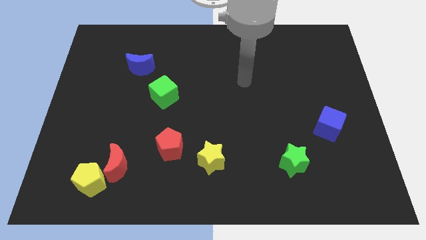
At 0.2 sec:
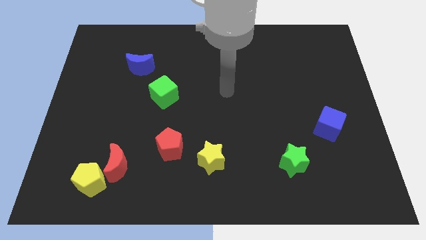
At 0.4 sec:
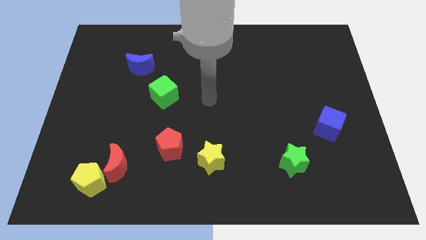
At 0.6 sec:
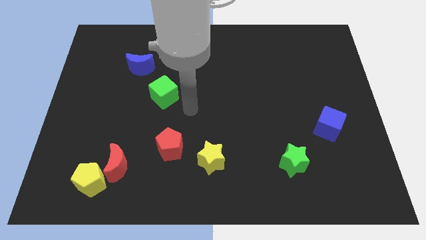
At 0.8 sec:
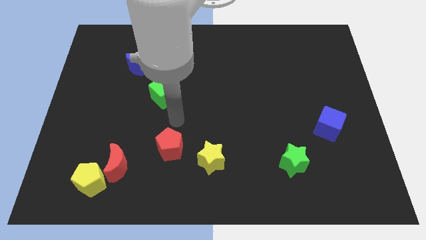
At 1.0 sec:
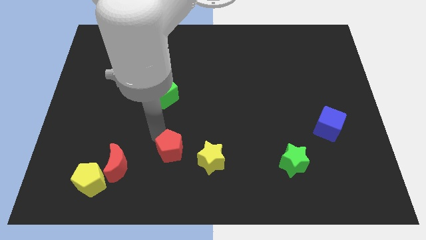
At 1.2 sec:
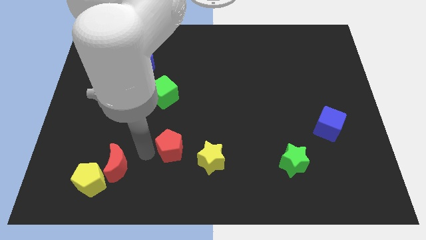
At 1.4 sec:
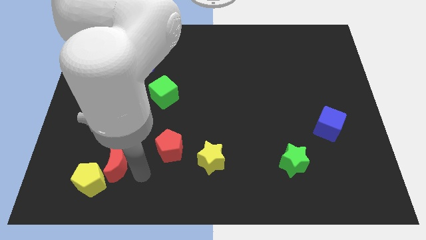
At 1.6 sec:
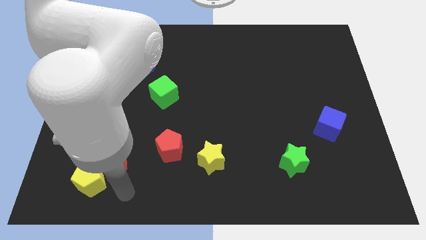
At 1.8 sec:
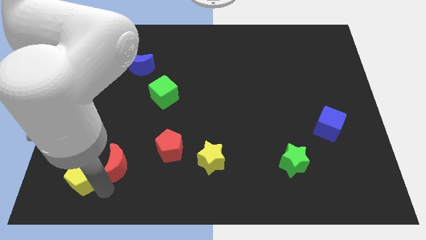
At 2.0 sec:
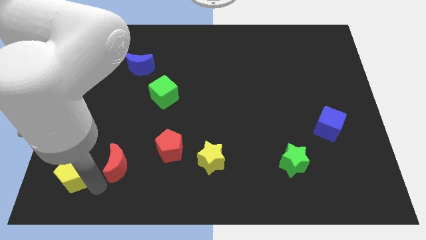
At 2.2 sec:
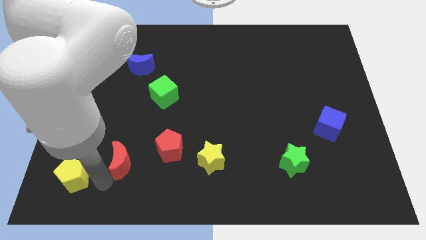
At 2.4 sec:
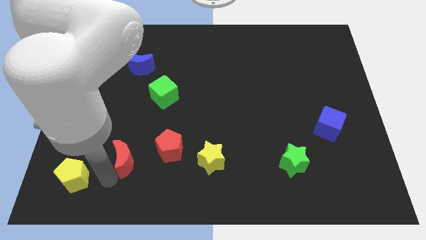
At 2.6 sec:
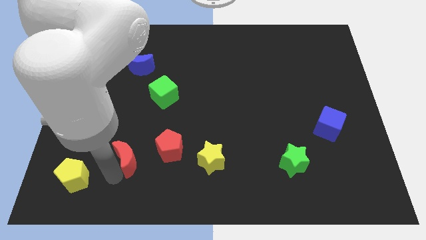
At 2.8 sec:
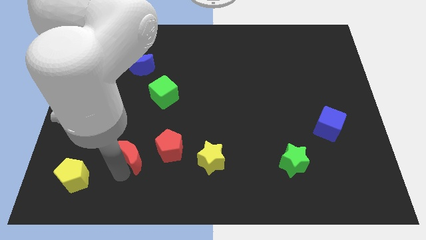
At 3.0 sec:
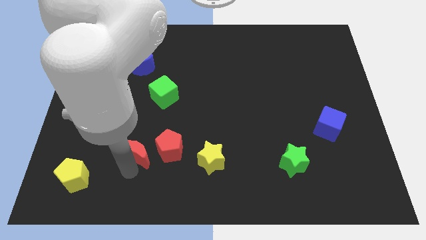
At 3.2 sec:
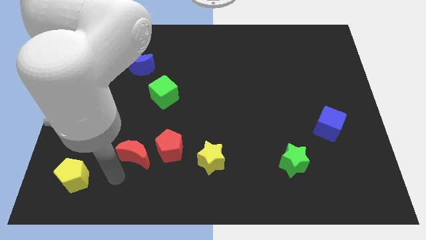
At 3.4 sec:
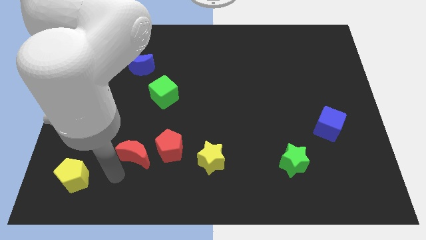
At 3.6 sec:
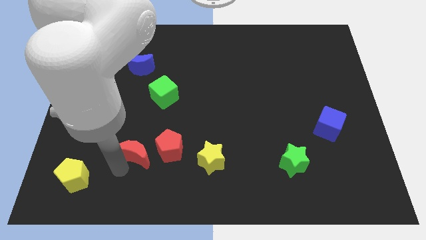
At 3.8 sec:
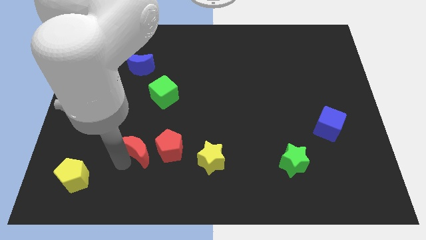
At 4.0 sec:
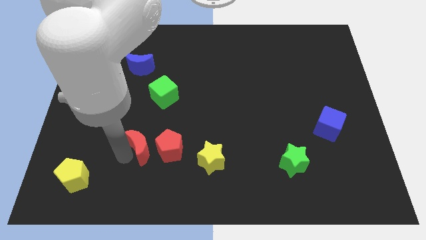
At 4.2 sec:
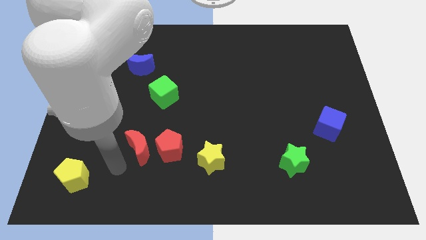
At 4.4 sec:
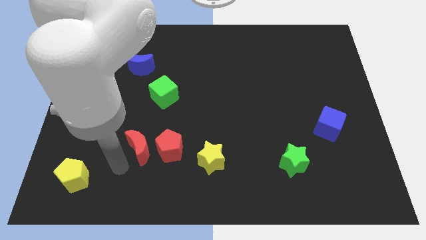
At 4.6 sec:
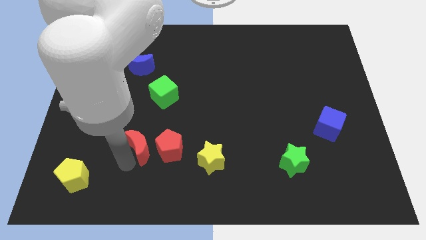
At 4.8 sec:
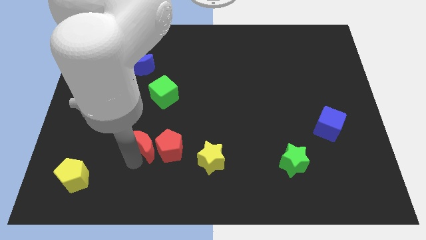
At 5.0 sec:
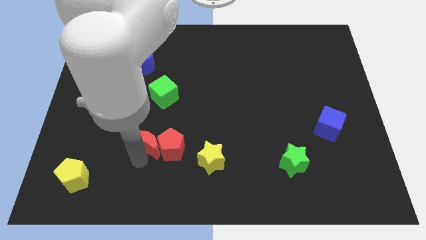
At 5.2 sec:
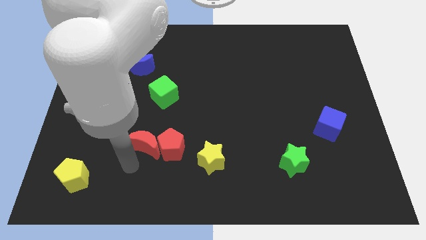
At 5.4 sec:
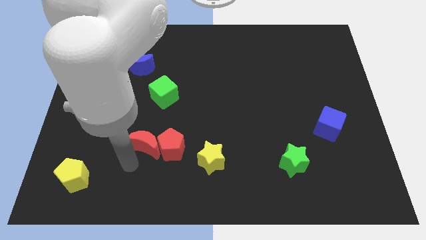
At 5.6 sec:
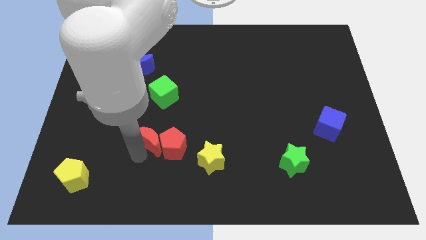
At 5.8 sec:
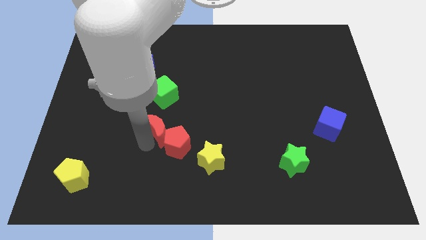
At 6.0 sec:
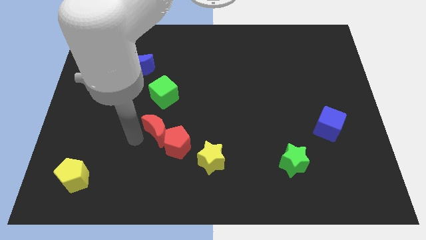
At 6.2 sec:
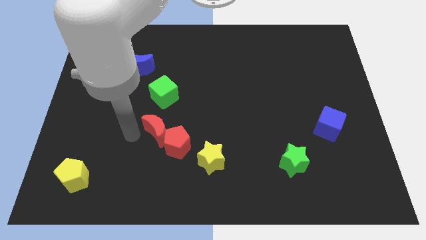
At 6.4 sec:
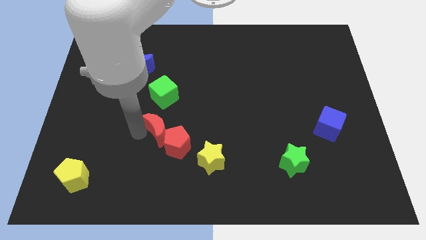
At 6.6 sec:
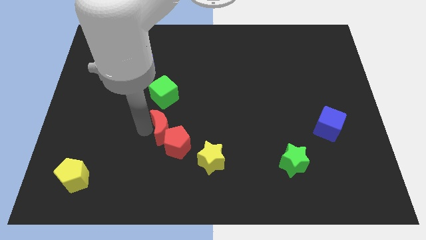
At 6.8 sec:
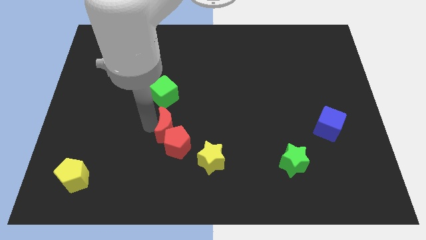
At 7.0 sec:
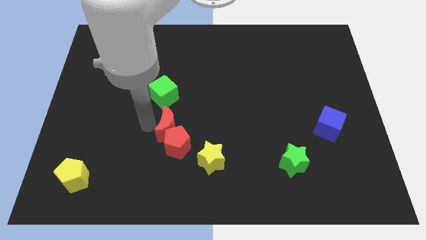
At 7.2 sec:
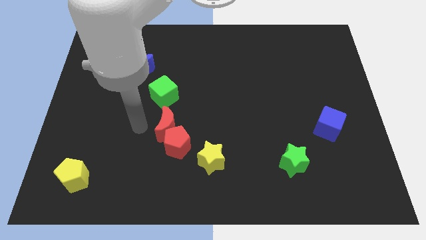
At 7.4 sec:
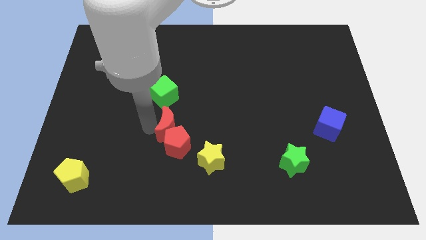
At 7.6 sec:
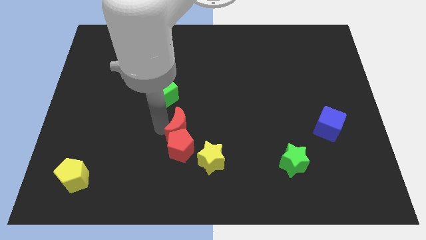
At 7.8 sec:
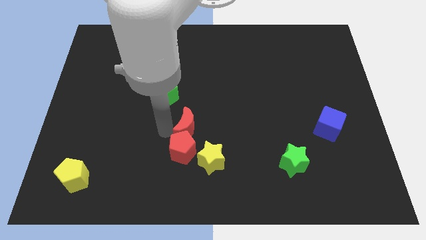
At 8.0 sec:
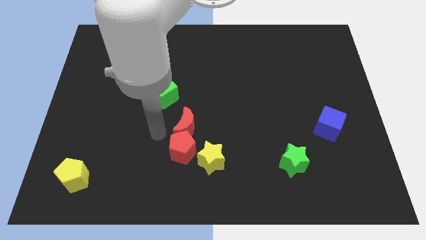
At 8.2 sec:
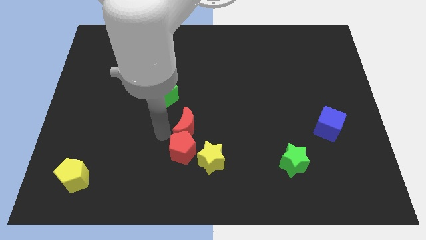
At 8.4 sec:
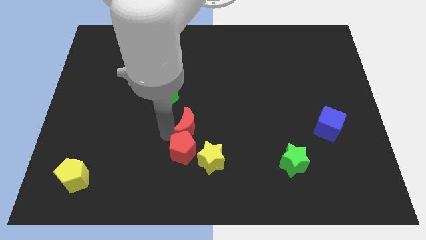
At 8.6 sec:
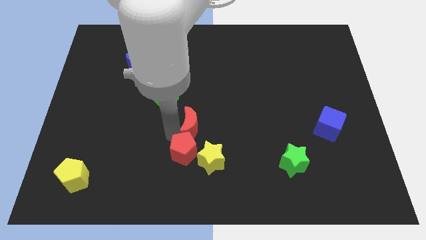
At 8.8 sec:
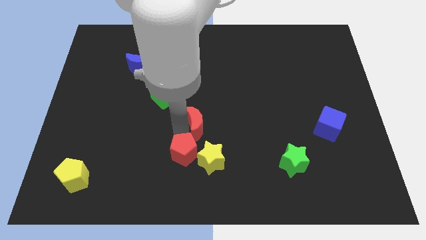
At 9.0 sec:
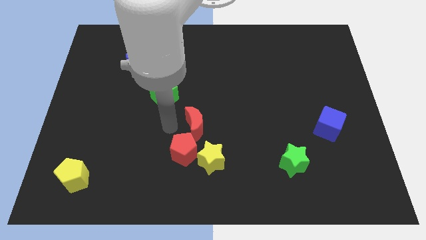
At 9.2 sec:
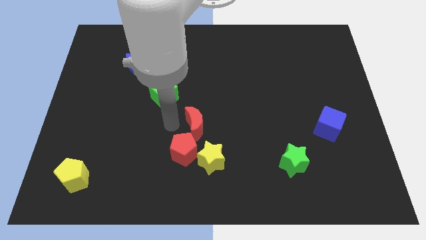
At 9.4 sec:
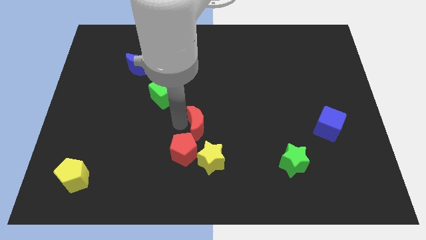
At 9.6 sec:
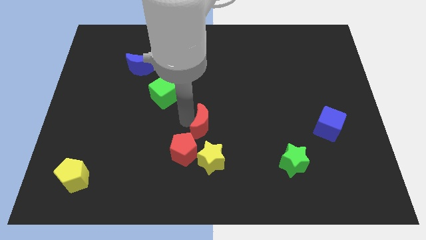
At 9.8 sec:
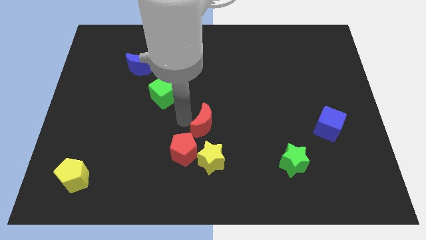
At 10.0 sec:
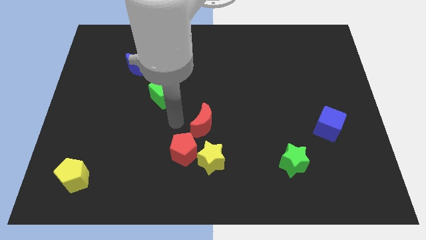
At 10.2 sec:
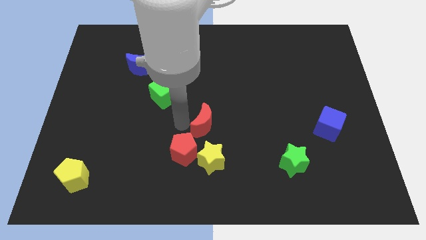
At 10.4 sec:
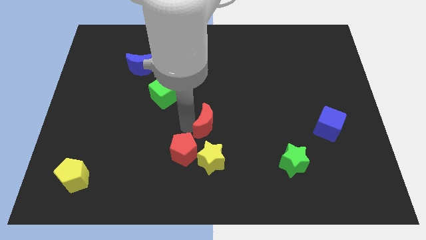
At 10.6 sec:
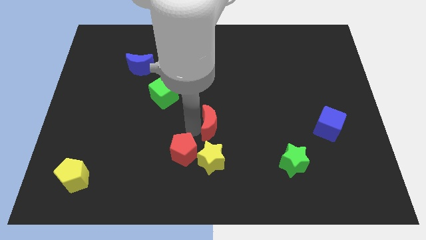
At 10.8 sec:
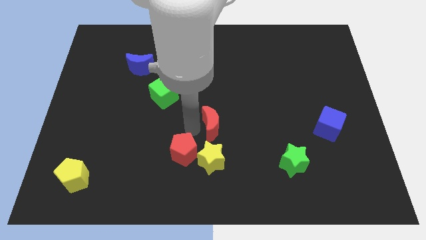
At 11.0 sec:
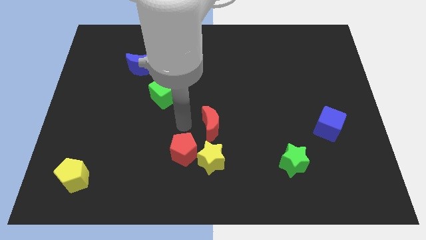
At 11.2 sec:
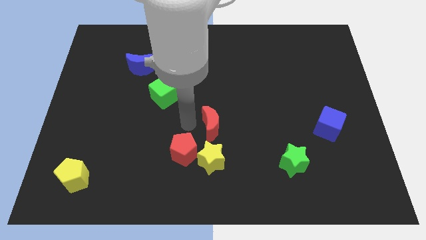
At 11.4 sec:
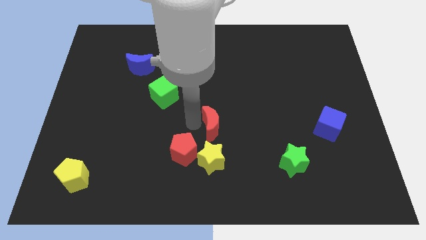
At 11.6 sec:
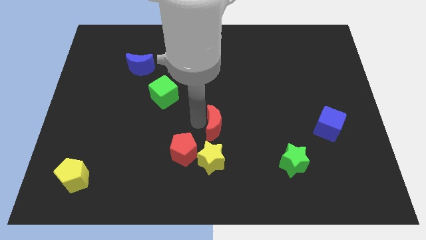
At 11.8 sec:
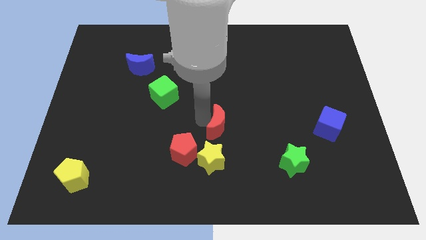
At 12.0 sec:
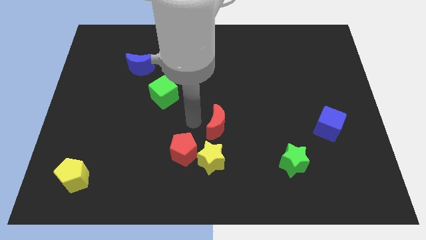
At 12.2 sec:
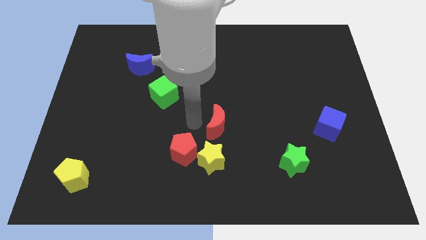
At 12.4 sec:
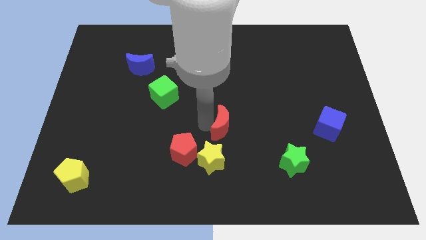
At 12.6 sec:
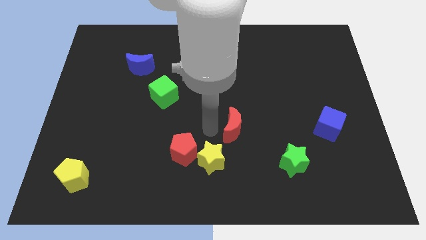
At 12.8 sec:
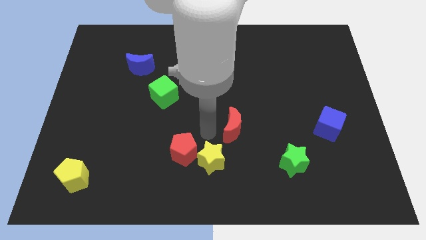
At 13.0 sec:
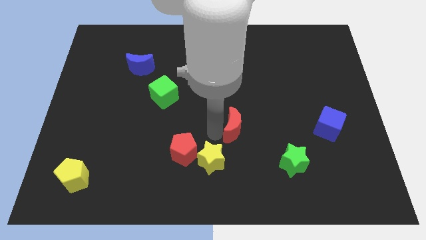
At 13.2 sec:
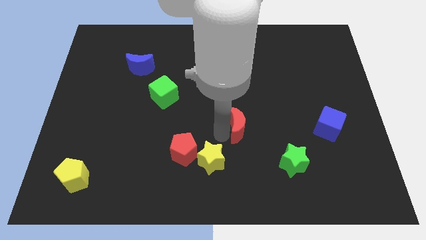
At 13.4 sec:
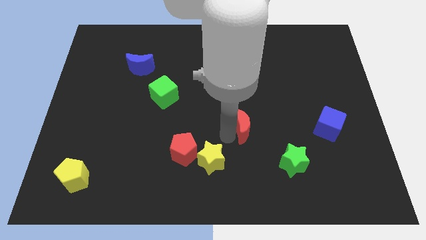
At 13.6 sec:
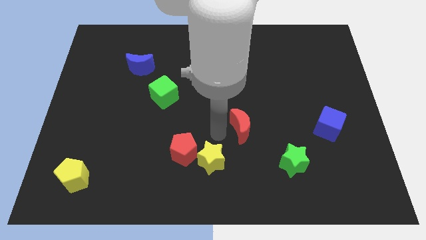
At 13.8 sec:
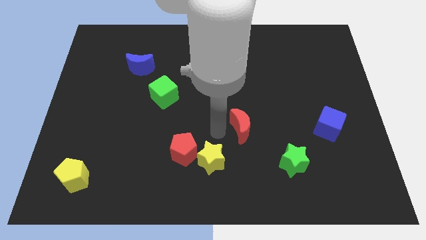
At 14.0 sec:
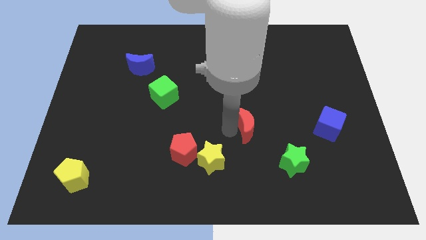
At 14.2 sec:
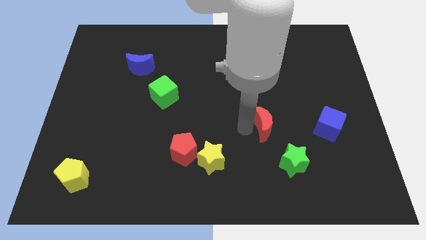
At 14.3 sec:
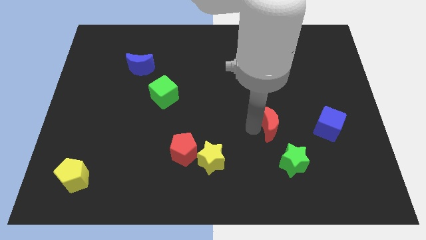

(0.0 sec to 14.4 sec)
push the red moon to the top side of the green star
